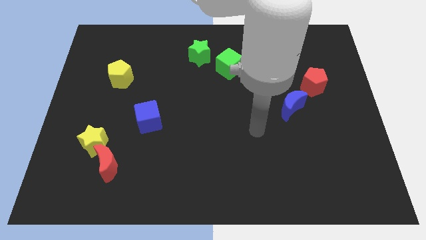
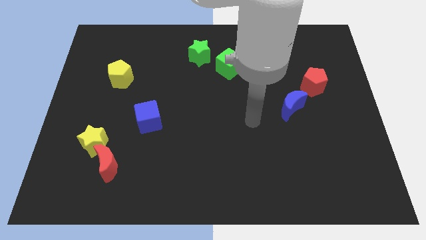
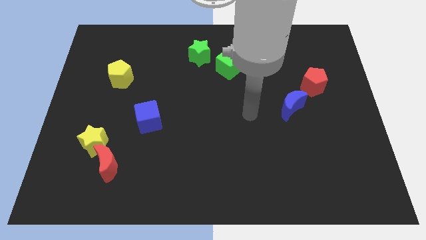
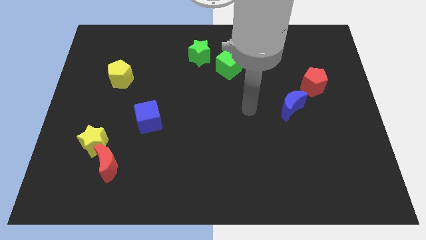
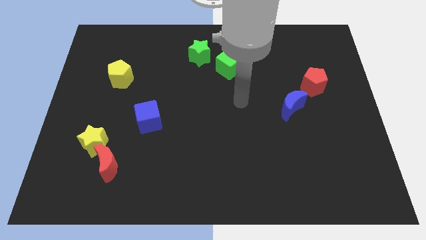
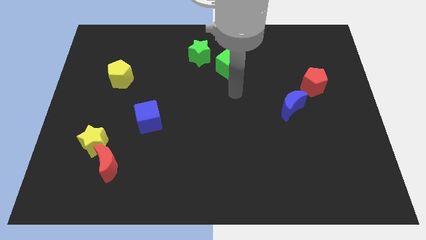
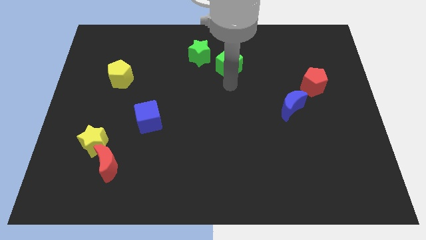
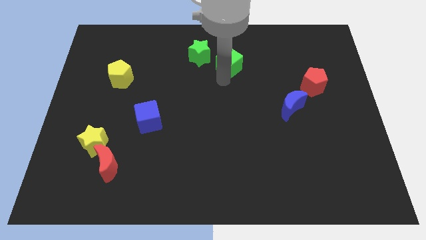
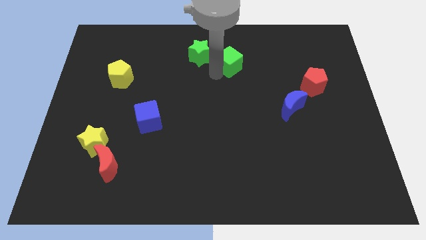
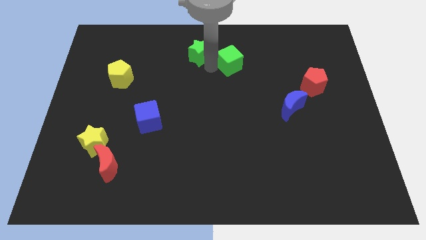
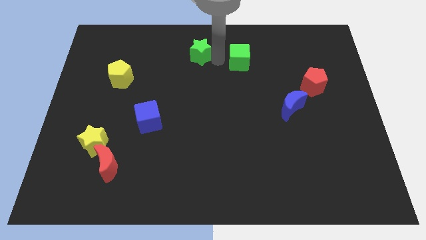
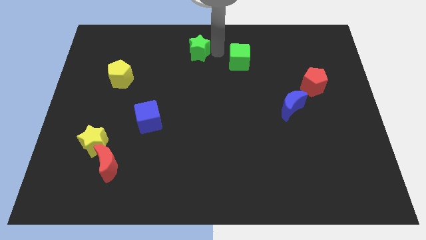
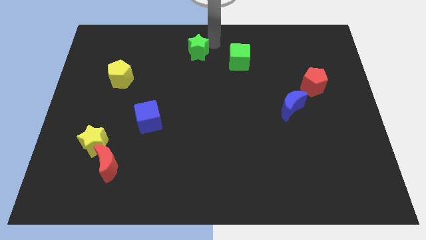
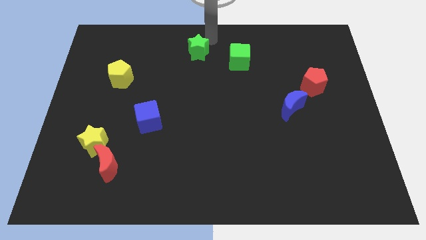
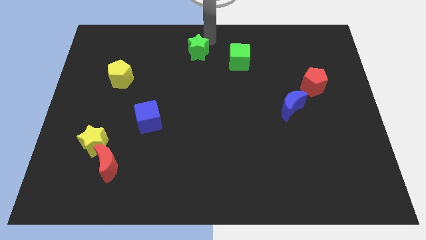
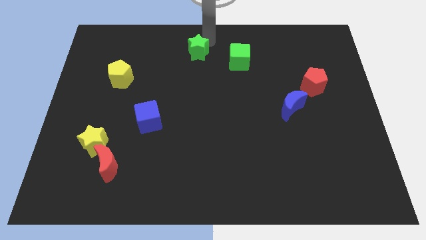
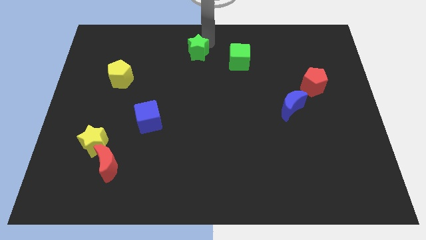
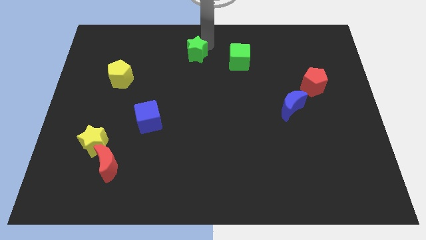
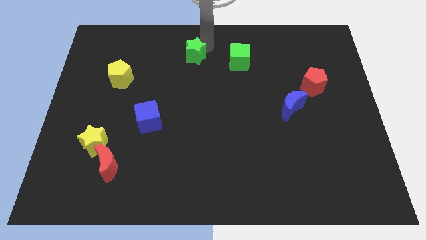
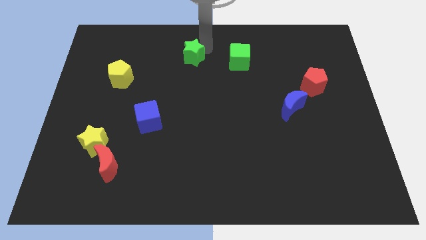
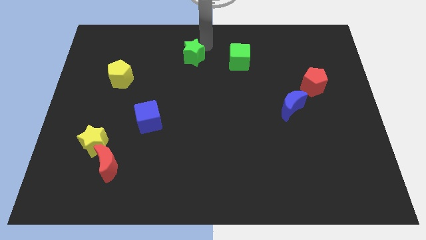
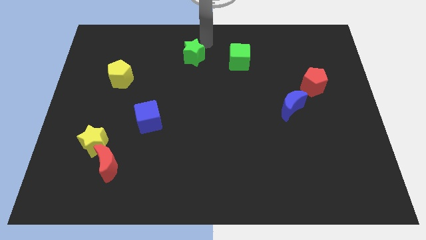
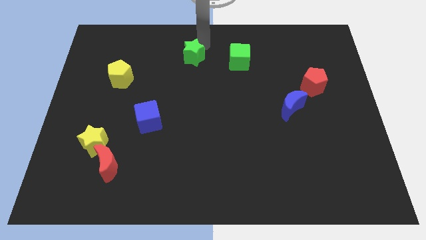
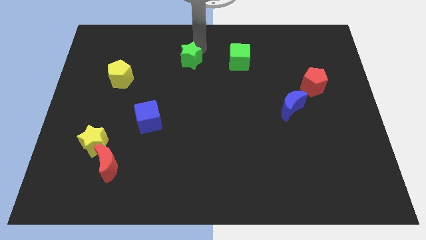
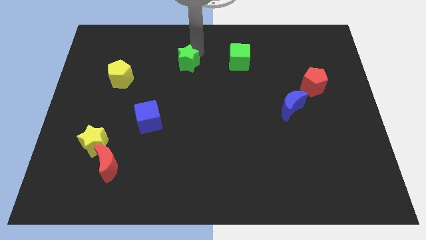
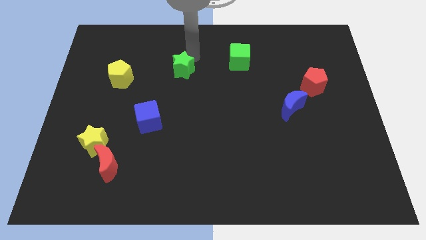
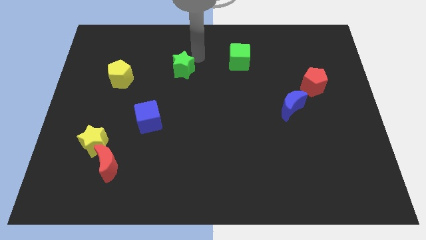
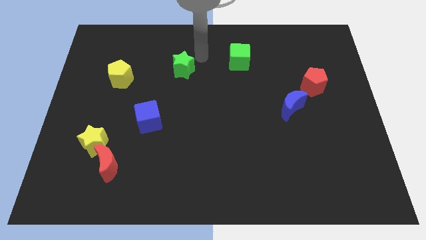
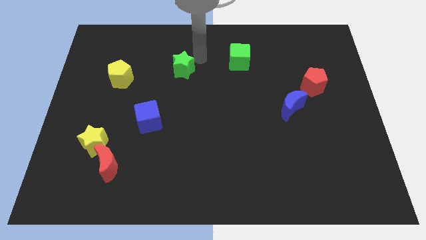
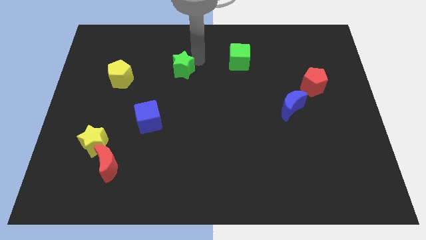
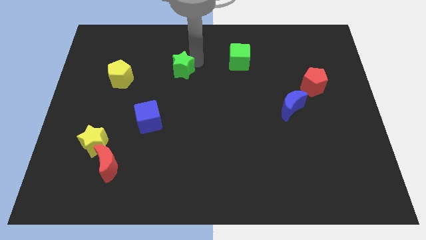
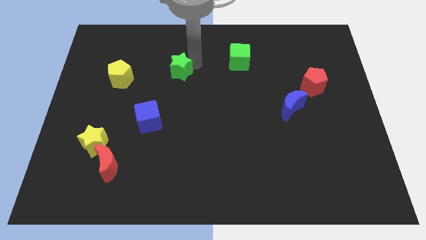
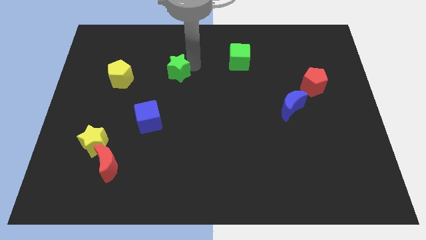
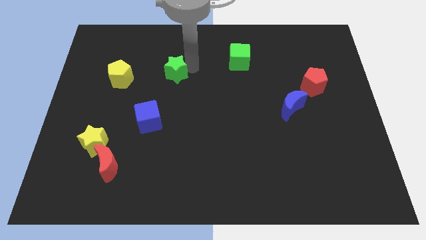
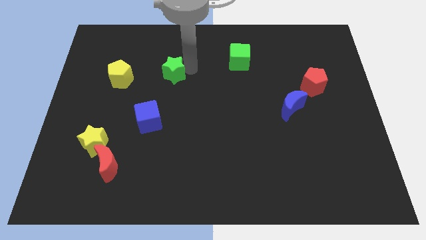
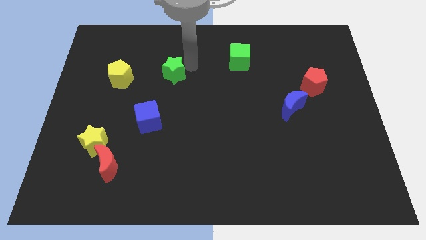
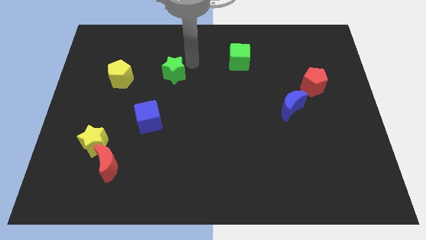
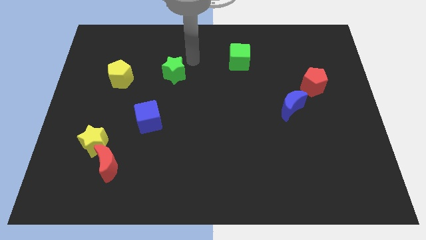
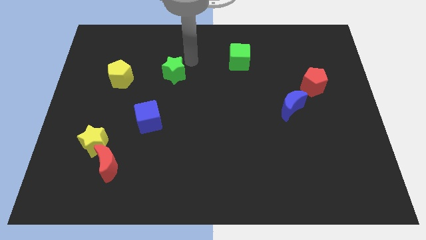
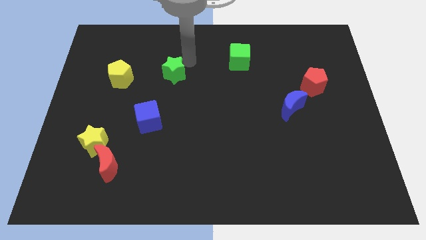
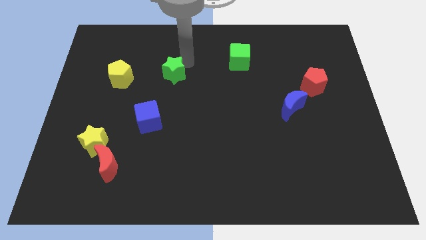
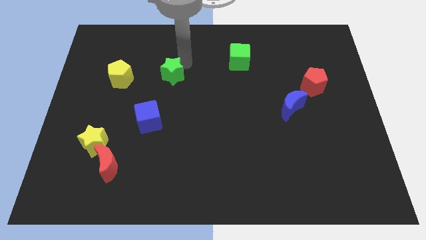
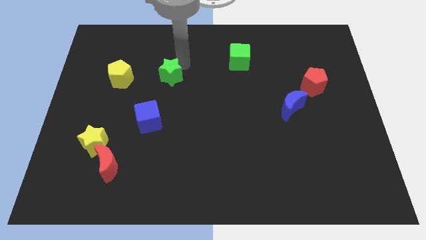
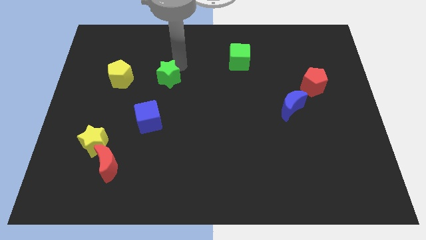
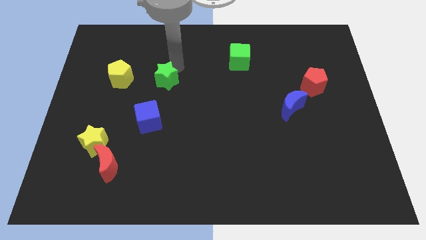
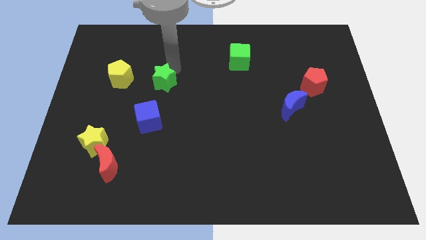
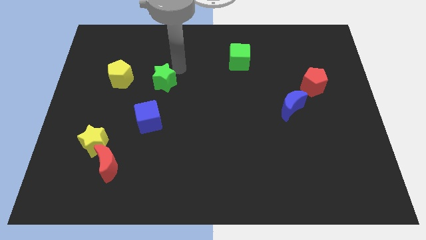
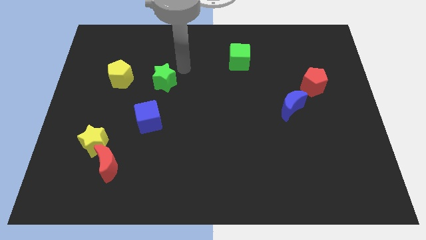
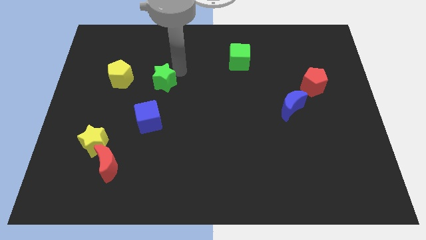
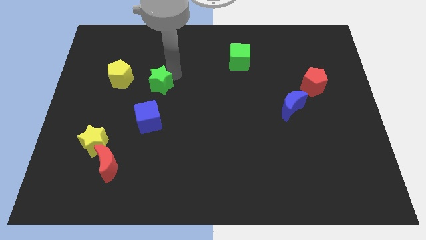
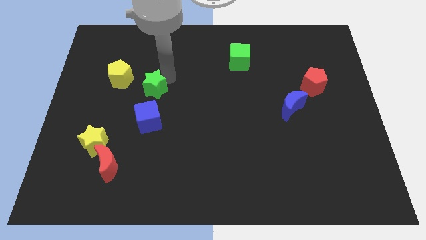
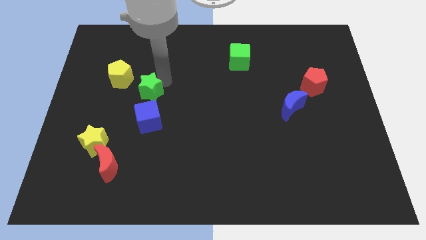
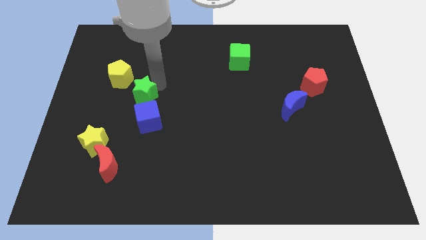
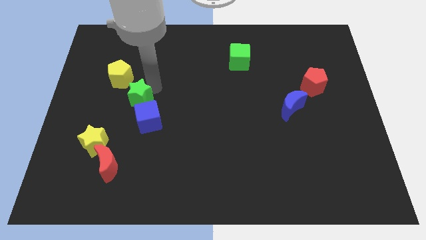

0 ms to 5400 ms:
move the green star downwards and left diagonally

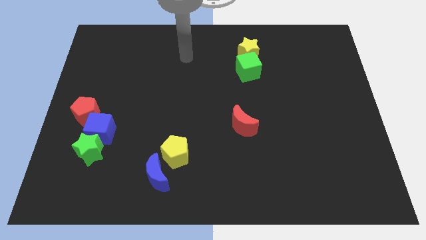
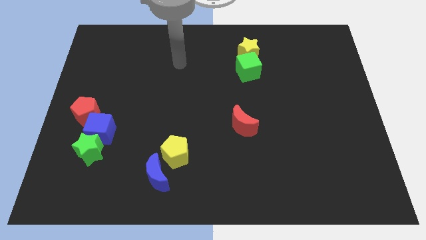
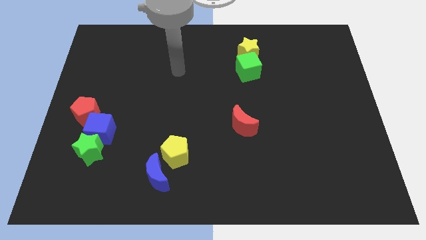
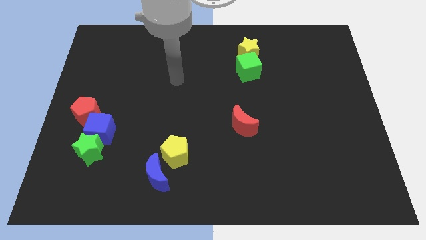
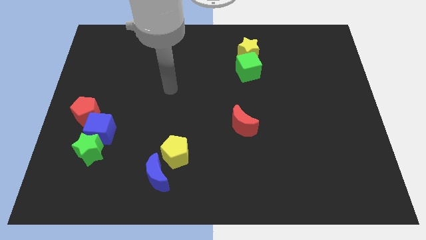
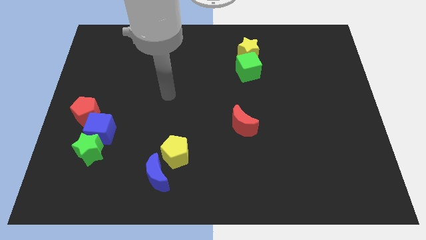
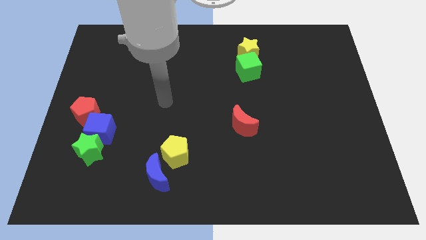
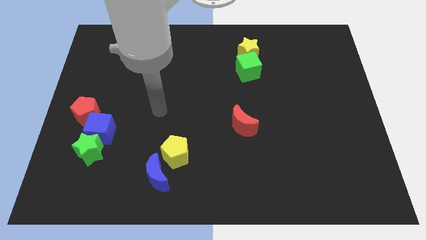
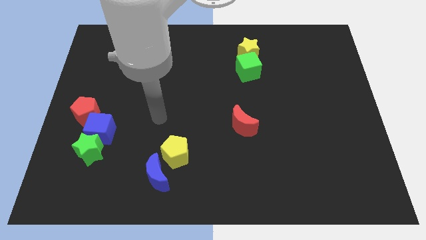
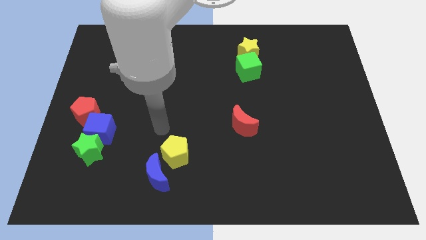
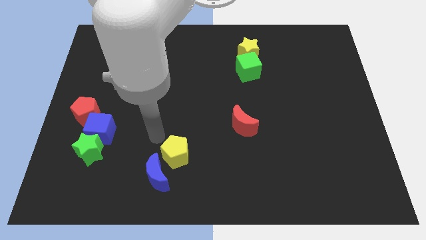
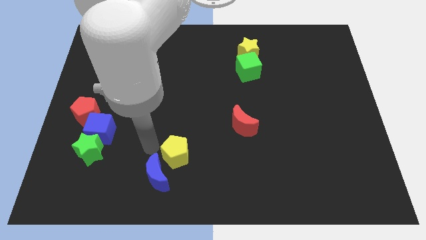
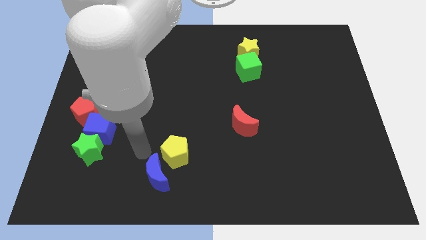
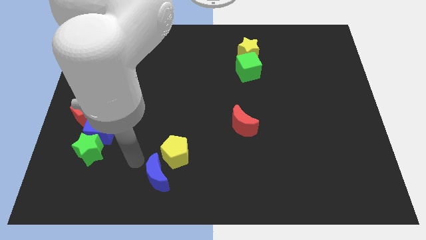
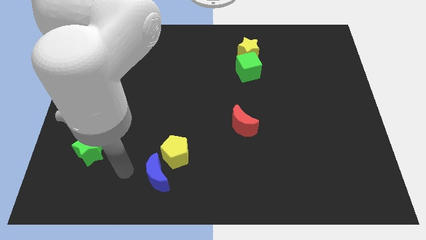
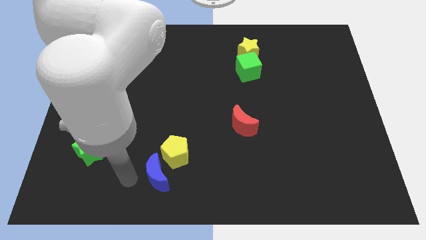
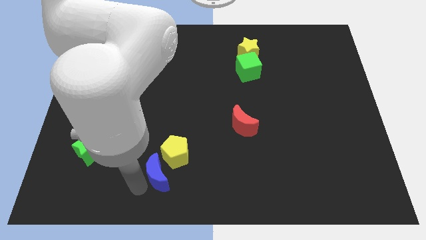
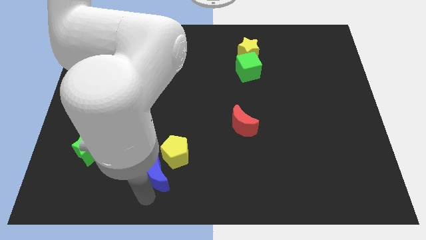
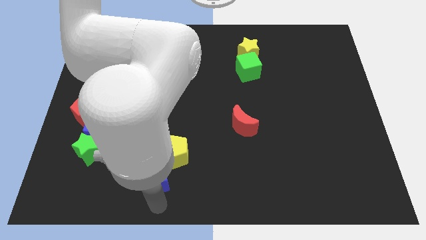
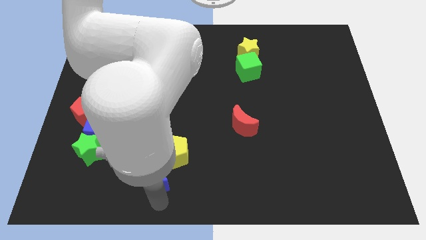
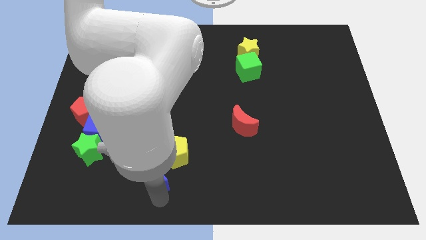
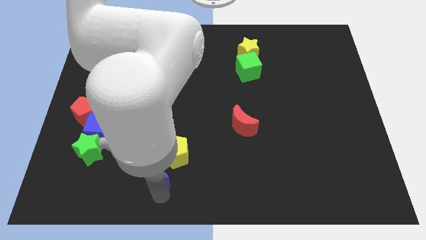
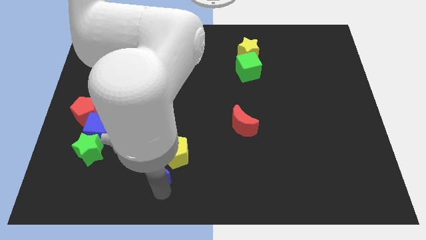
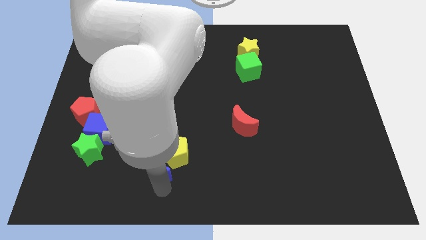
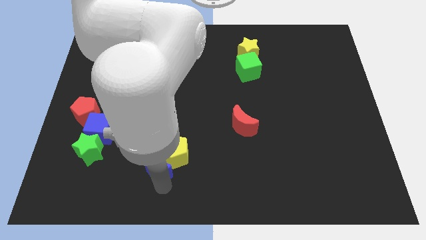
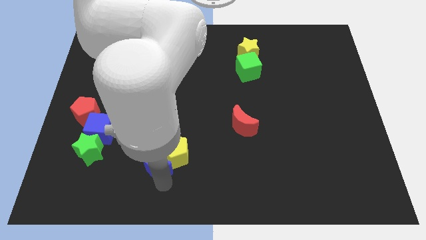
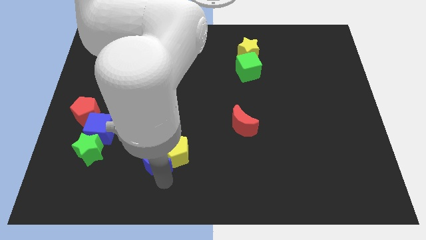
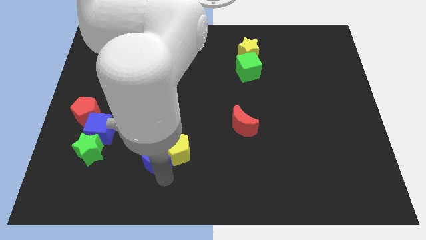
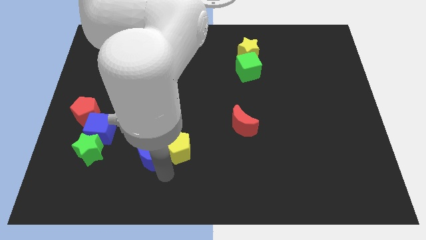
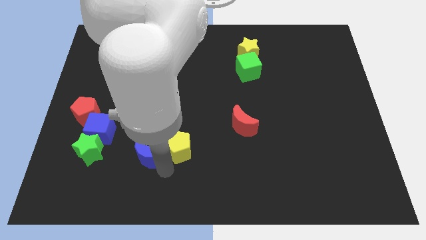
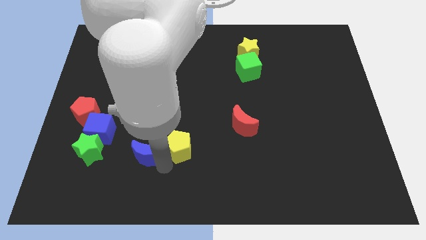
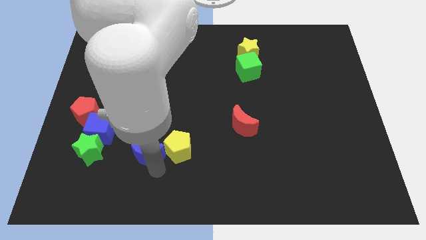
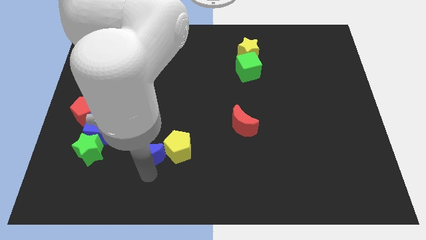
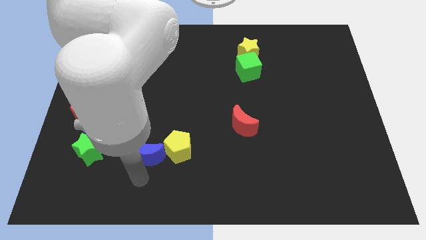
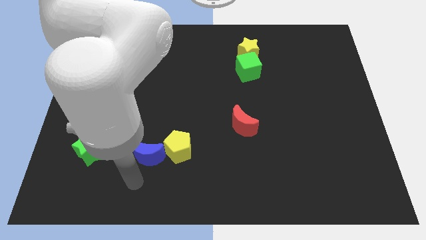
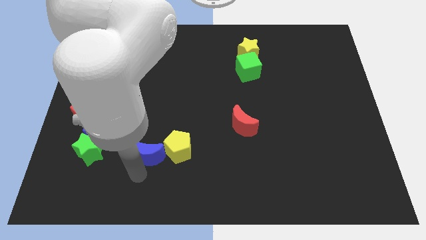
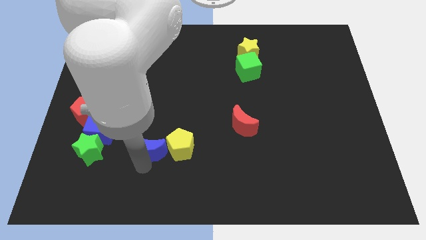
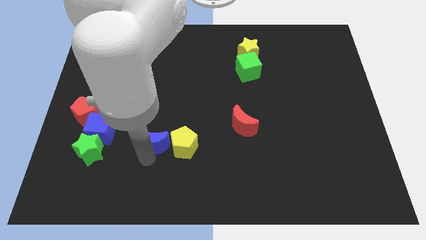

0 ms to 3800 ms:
push the blue moon a little upwards
